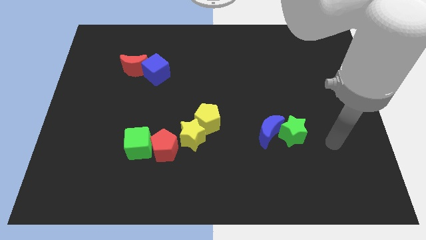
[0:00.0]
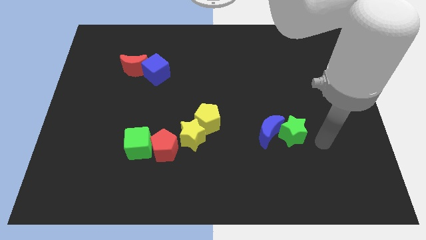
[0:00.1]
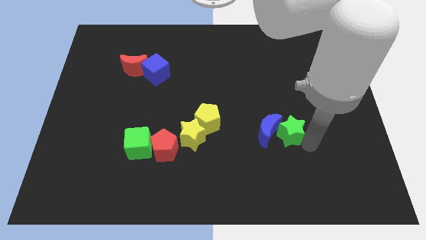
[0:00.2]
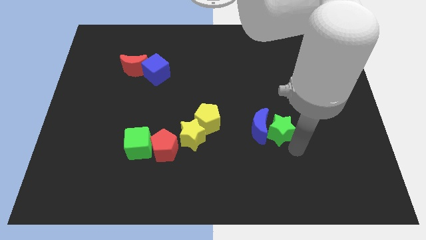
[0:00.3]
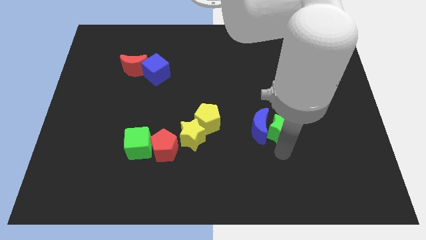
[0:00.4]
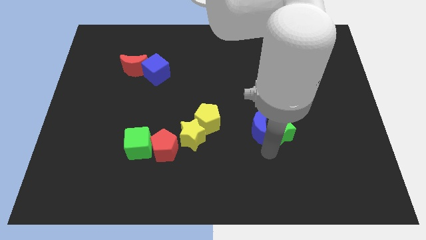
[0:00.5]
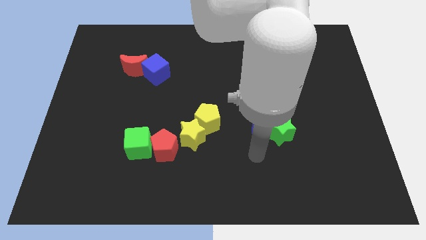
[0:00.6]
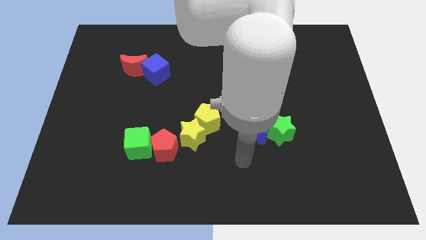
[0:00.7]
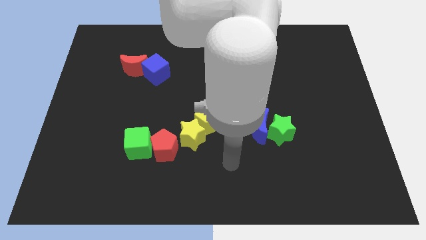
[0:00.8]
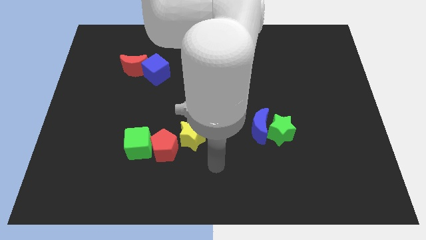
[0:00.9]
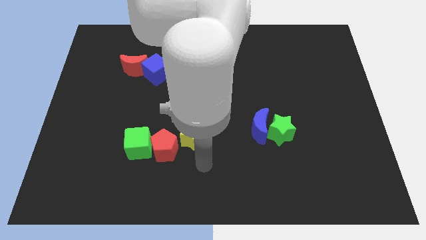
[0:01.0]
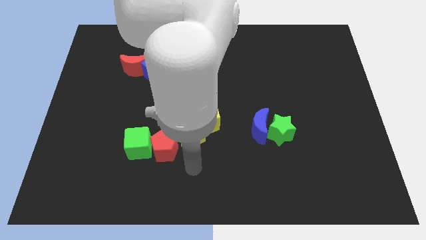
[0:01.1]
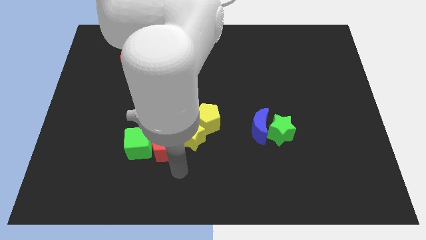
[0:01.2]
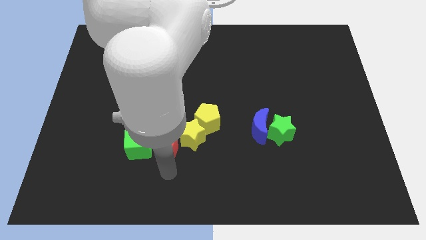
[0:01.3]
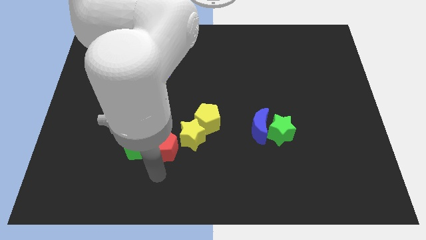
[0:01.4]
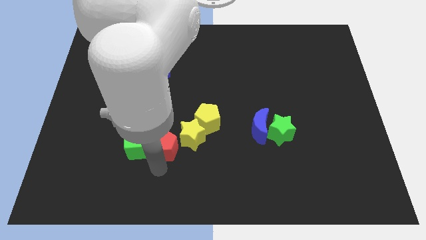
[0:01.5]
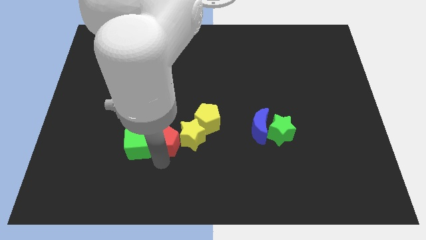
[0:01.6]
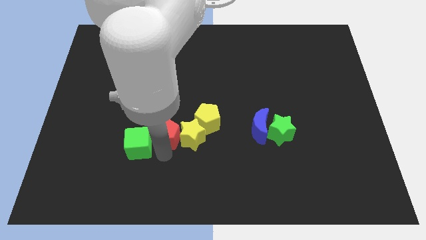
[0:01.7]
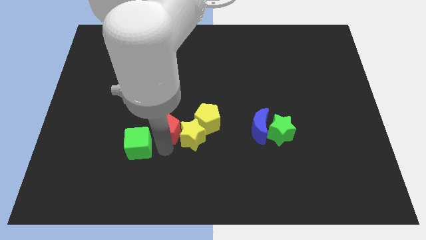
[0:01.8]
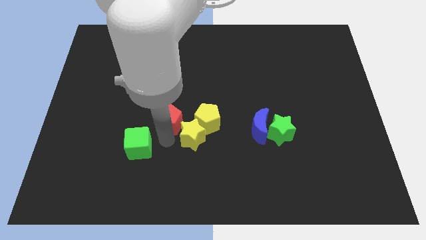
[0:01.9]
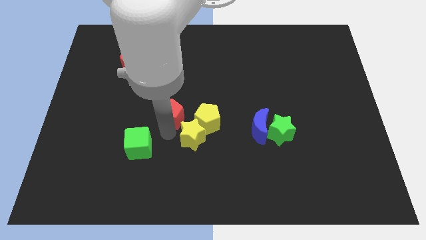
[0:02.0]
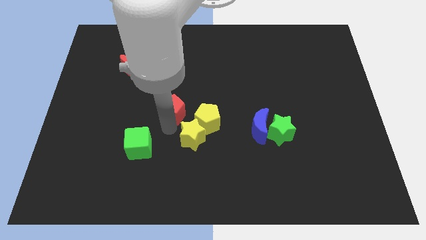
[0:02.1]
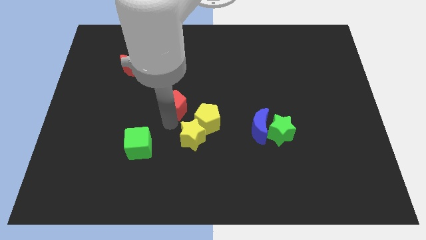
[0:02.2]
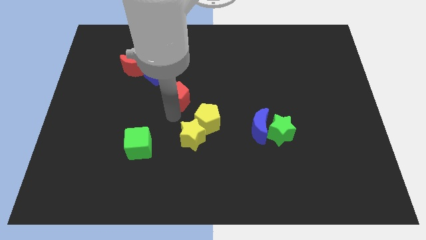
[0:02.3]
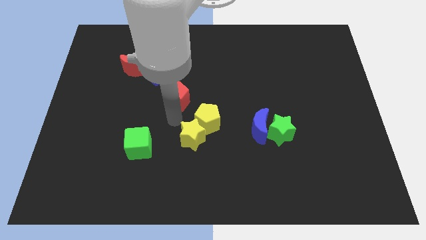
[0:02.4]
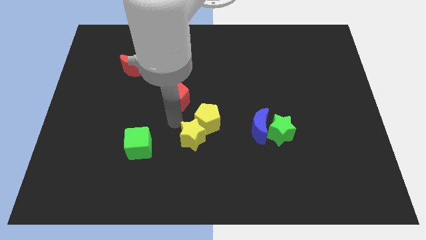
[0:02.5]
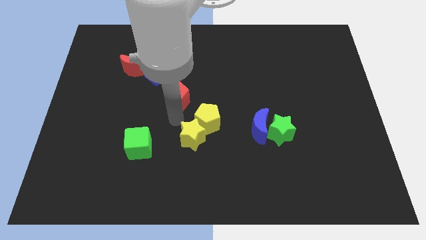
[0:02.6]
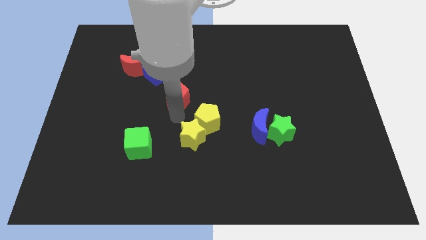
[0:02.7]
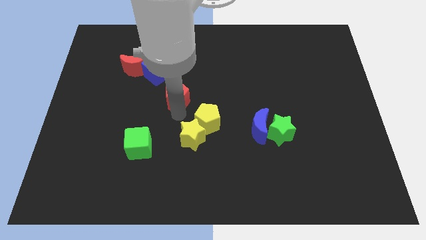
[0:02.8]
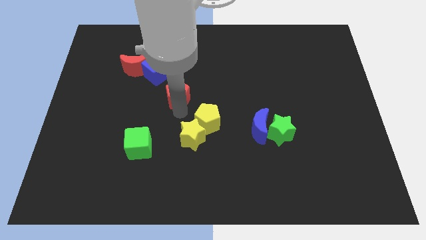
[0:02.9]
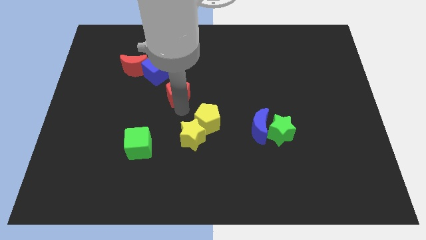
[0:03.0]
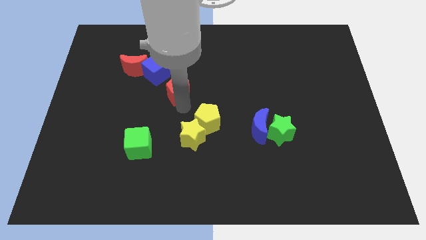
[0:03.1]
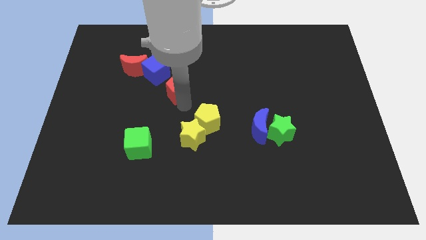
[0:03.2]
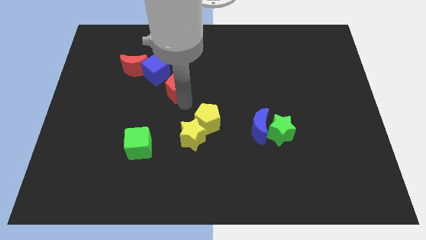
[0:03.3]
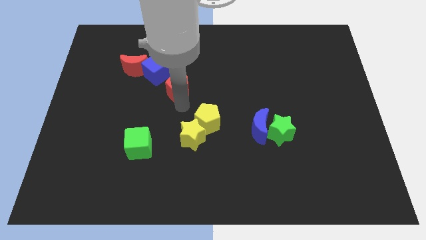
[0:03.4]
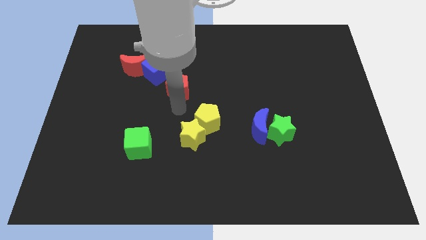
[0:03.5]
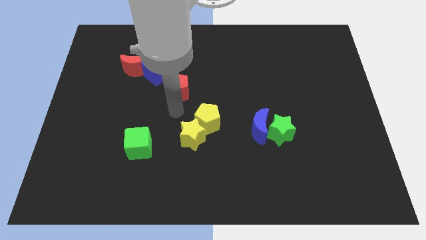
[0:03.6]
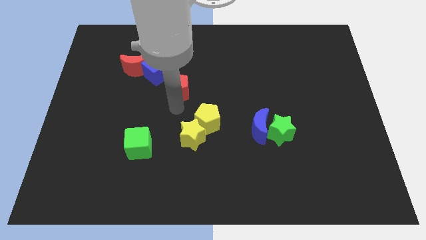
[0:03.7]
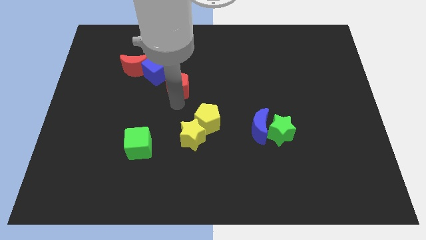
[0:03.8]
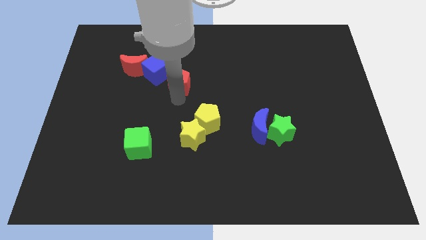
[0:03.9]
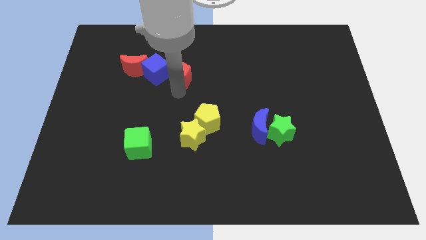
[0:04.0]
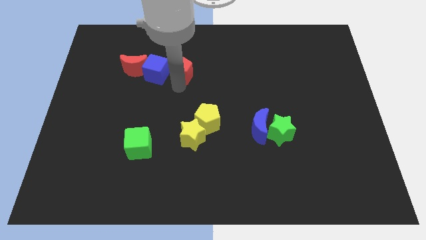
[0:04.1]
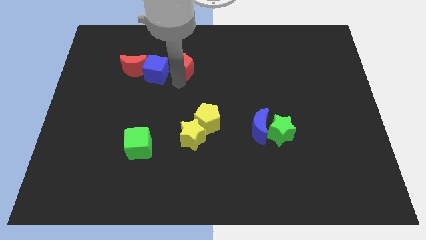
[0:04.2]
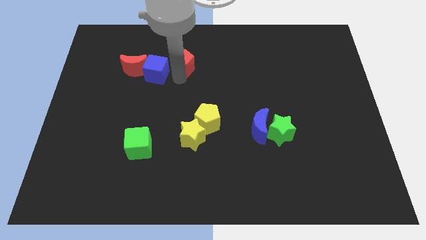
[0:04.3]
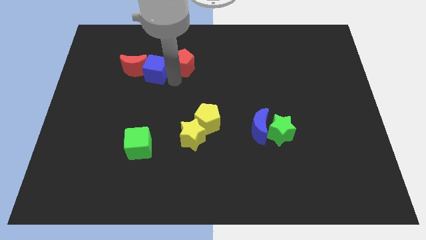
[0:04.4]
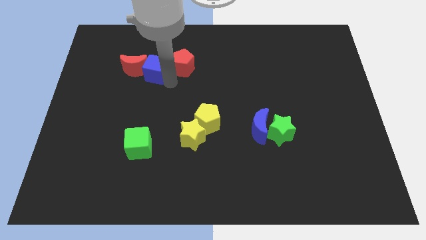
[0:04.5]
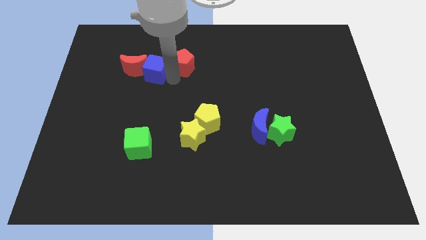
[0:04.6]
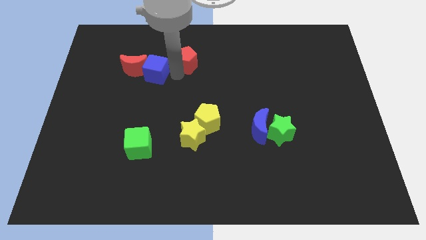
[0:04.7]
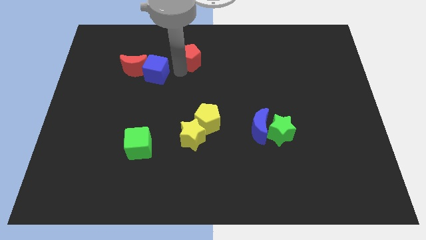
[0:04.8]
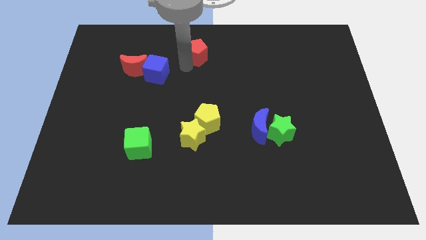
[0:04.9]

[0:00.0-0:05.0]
slide the red pentagon to the towards your base

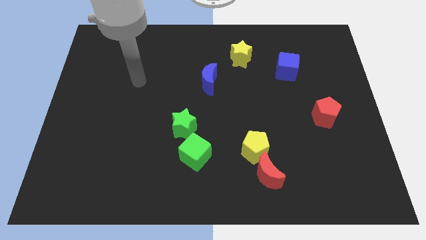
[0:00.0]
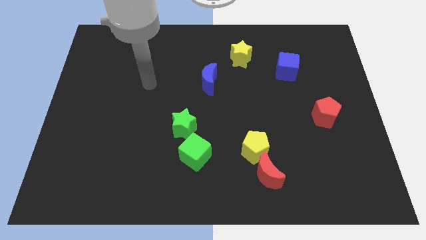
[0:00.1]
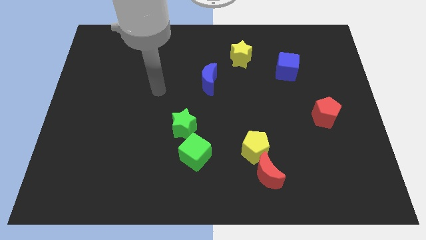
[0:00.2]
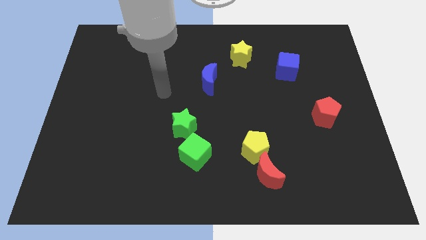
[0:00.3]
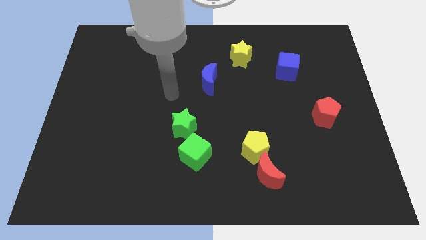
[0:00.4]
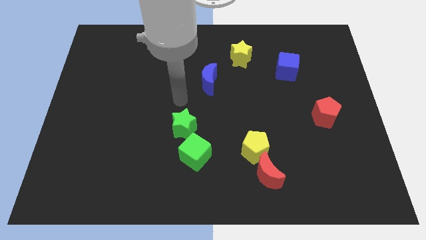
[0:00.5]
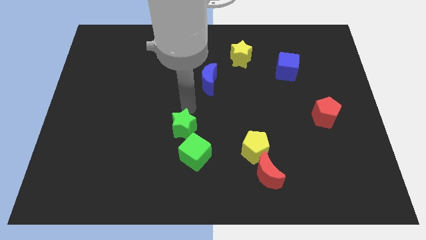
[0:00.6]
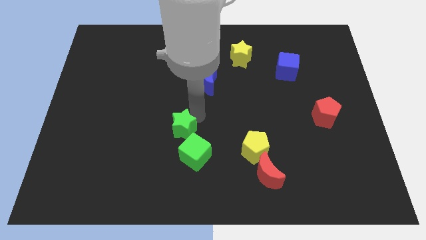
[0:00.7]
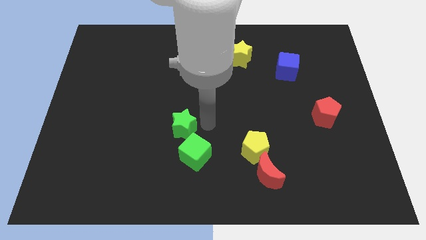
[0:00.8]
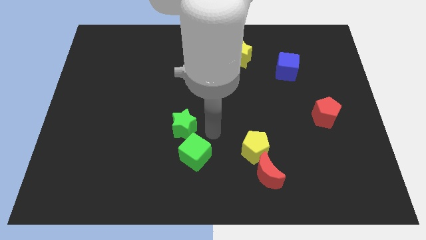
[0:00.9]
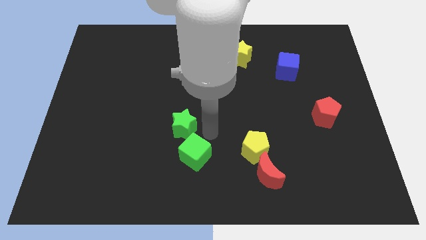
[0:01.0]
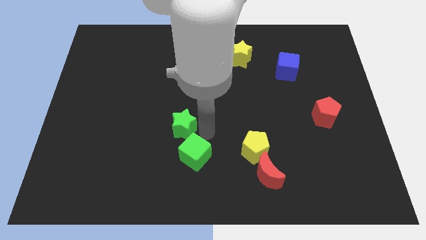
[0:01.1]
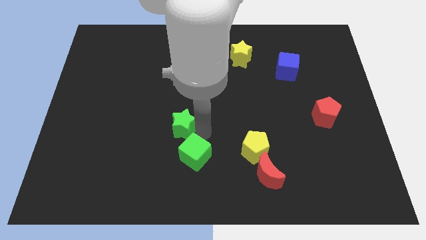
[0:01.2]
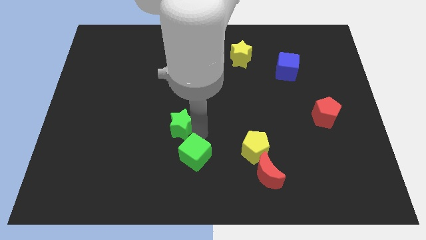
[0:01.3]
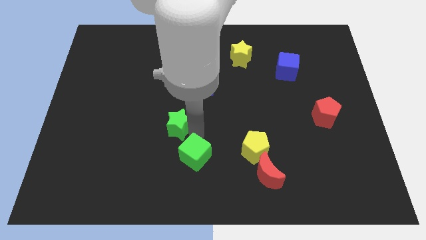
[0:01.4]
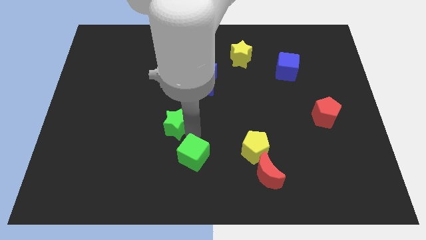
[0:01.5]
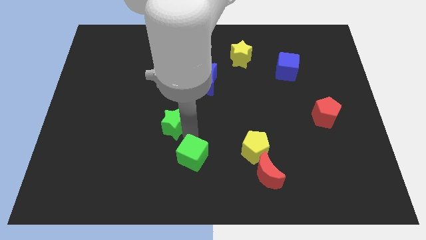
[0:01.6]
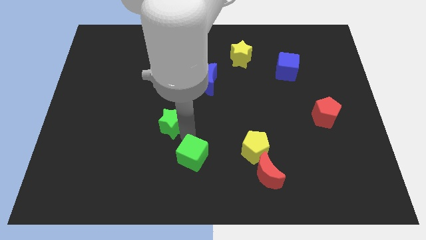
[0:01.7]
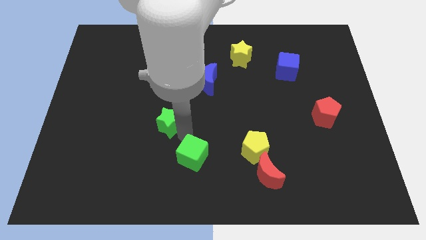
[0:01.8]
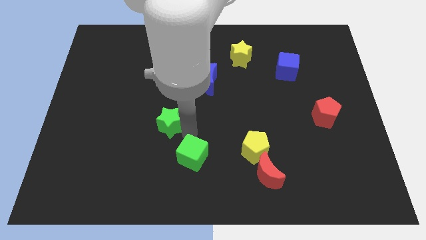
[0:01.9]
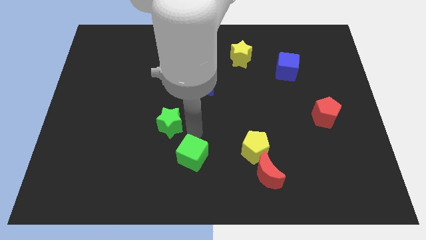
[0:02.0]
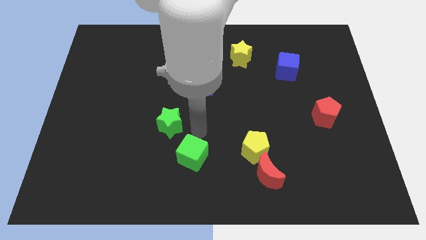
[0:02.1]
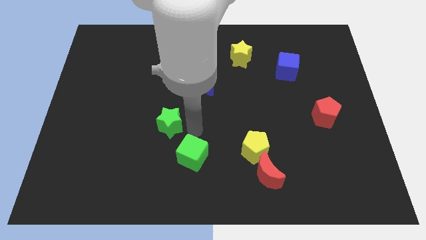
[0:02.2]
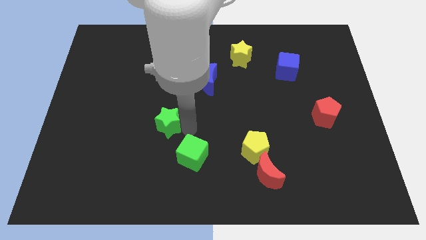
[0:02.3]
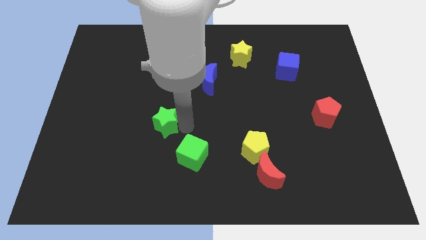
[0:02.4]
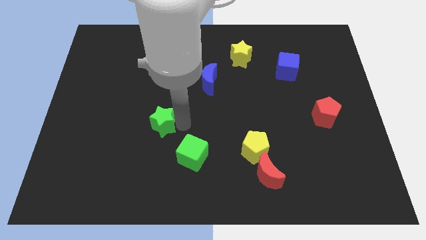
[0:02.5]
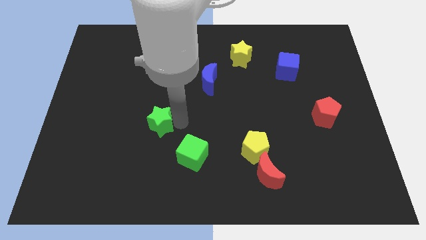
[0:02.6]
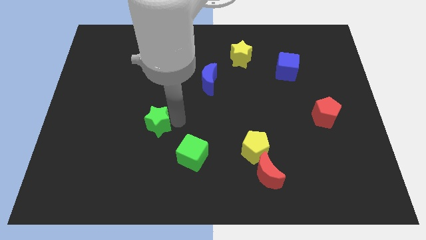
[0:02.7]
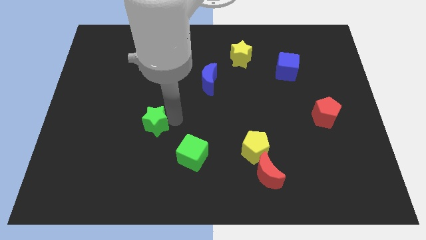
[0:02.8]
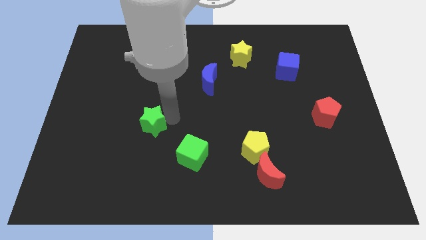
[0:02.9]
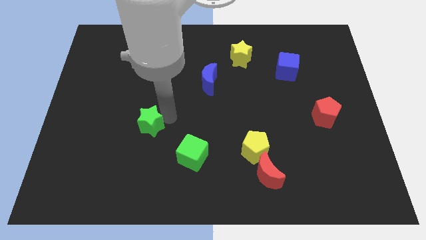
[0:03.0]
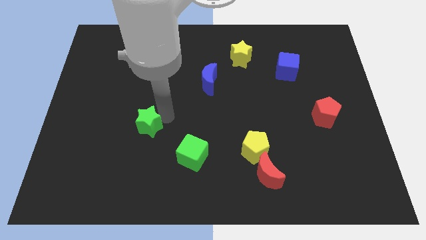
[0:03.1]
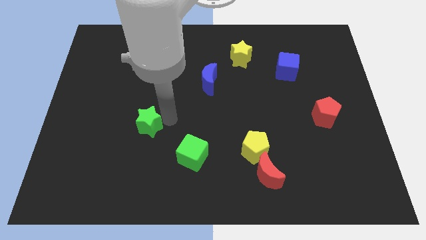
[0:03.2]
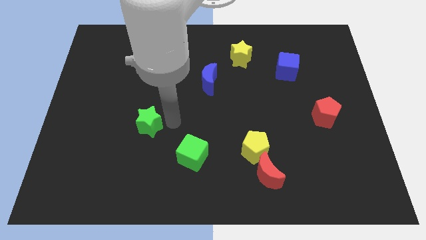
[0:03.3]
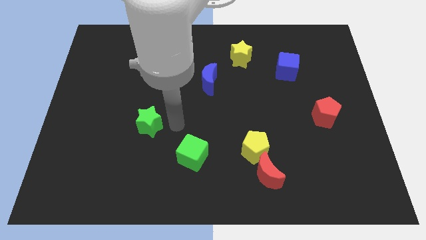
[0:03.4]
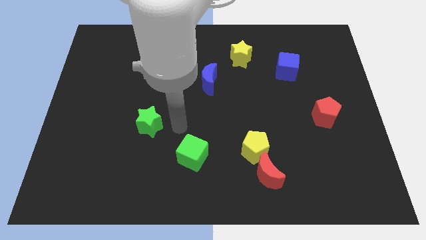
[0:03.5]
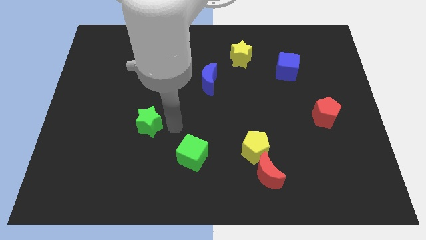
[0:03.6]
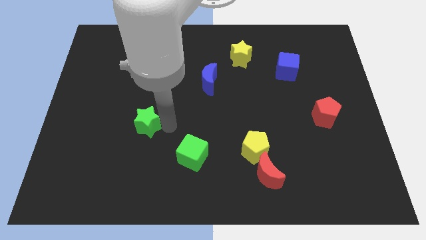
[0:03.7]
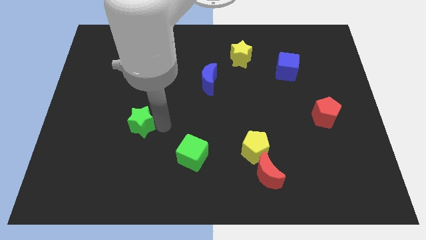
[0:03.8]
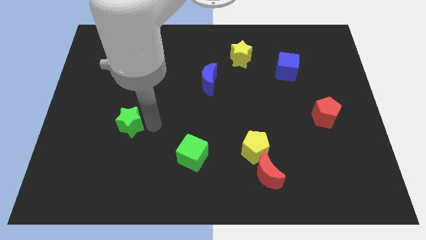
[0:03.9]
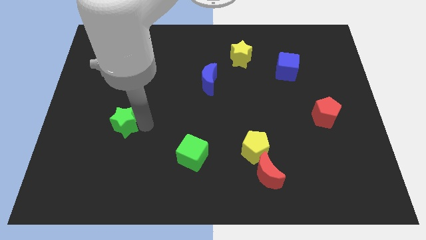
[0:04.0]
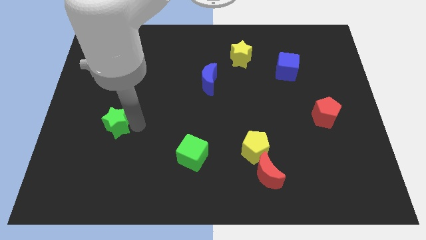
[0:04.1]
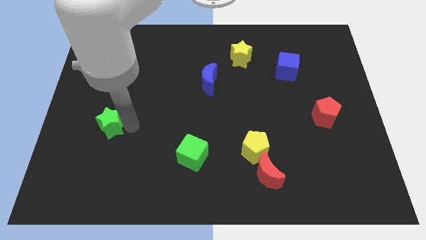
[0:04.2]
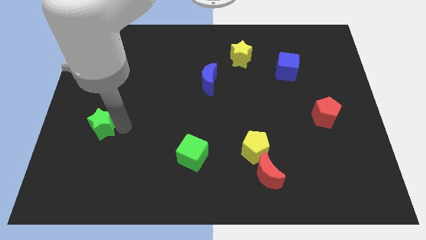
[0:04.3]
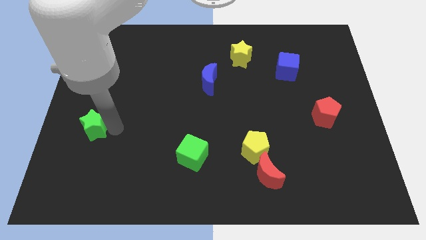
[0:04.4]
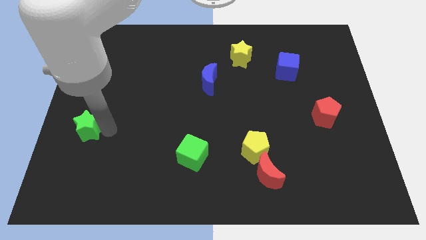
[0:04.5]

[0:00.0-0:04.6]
put the green star to the left side of the board
